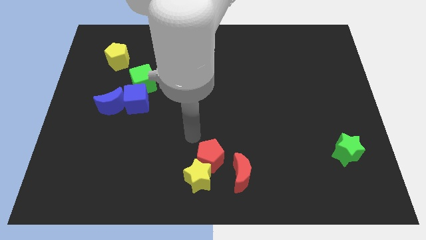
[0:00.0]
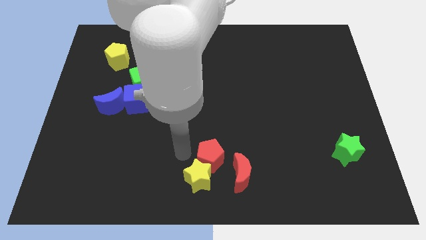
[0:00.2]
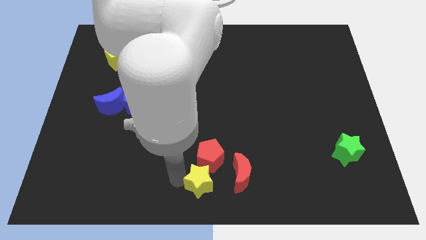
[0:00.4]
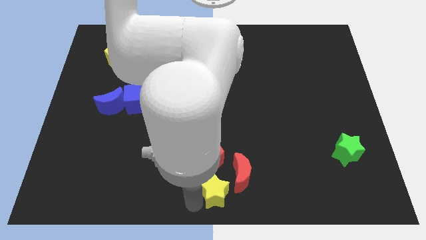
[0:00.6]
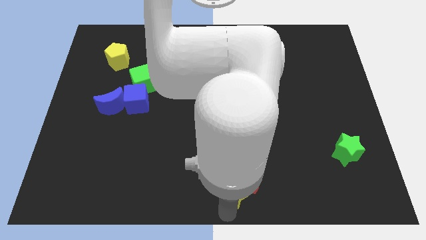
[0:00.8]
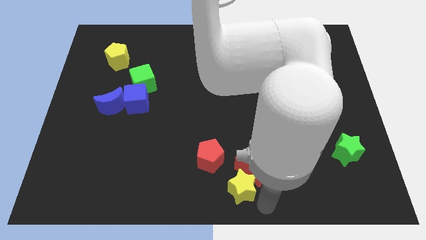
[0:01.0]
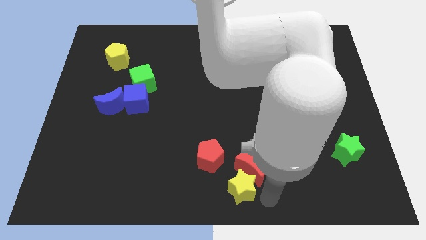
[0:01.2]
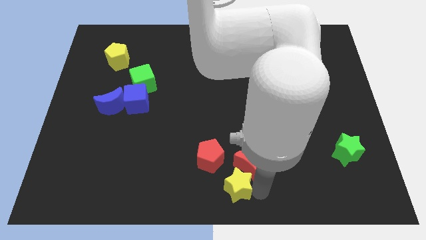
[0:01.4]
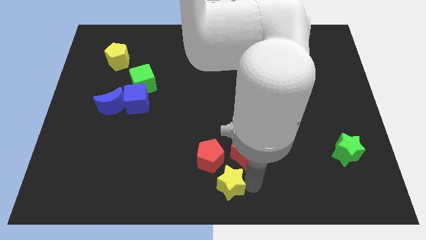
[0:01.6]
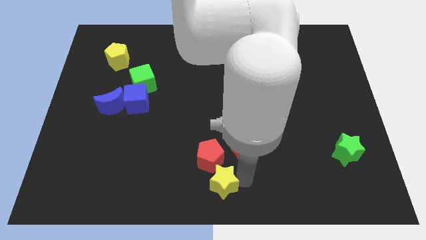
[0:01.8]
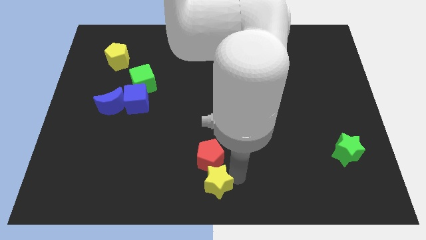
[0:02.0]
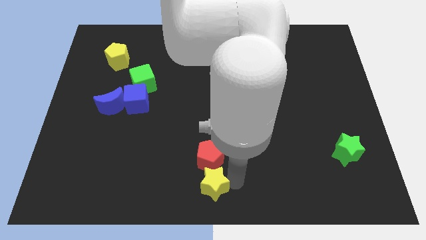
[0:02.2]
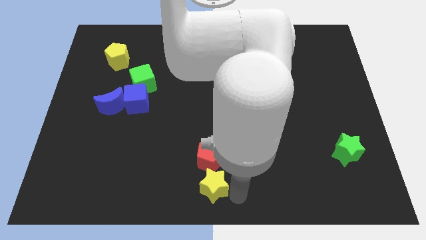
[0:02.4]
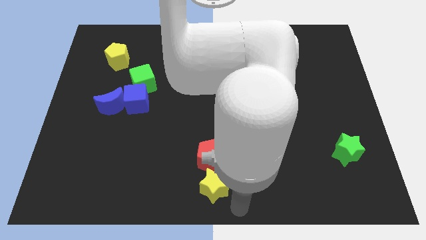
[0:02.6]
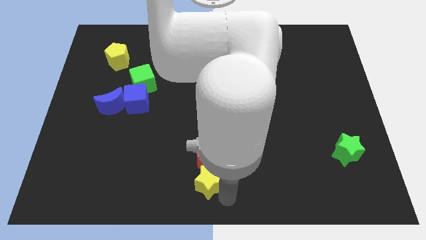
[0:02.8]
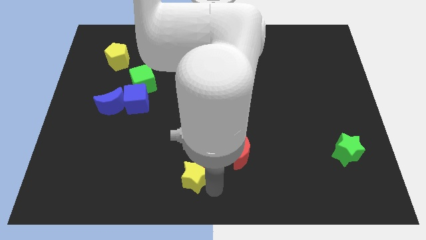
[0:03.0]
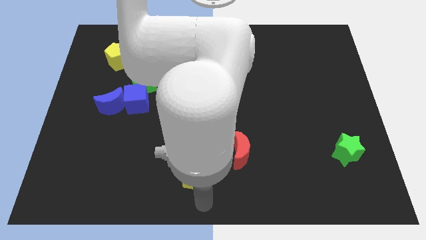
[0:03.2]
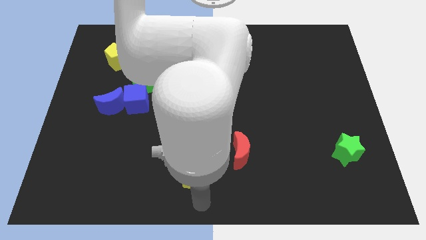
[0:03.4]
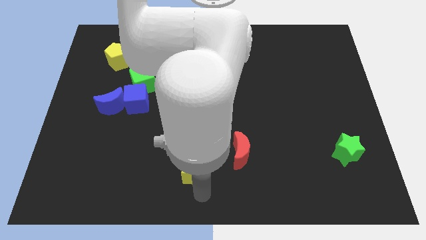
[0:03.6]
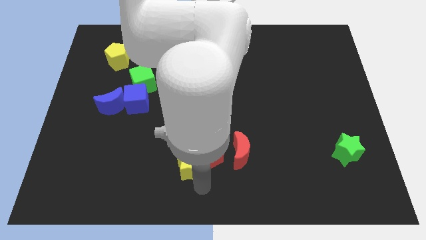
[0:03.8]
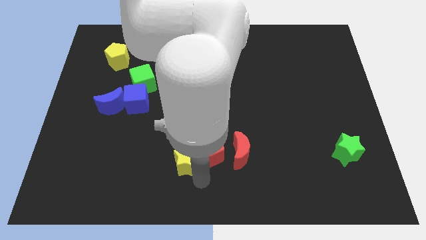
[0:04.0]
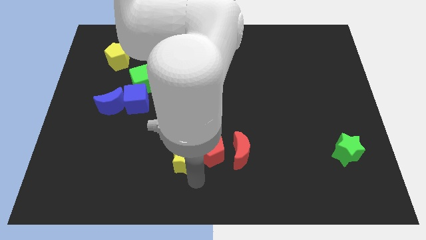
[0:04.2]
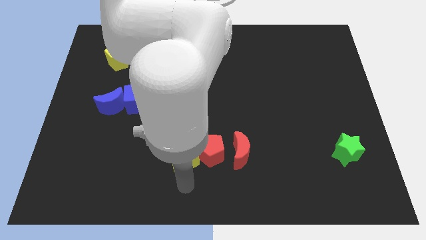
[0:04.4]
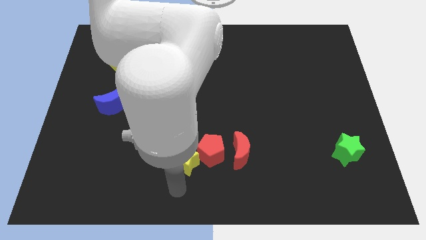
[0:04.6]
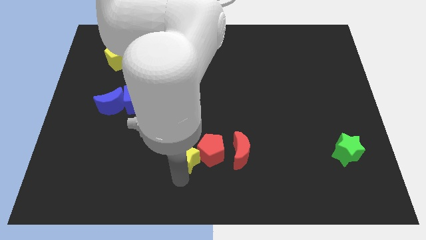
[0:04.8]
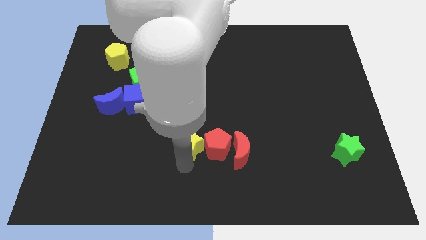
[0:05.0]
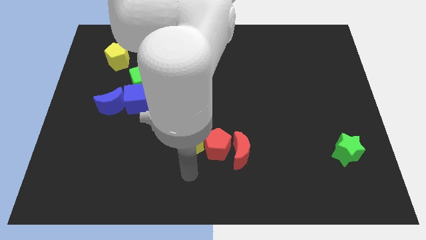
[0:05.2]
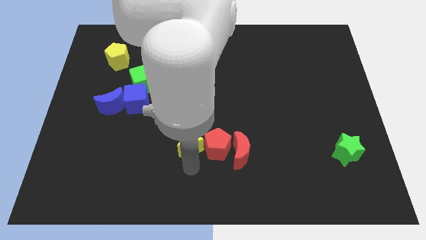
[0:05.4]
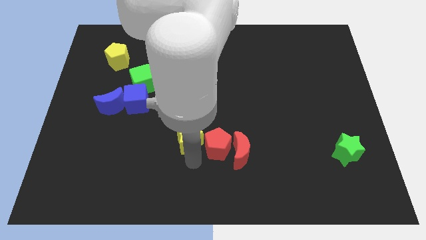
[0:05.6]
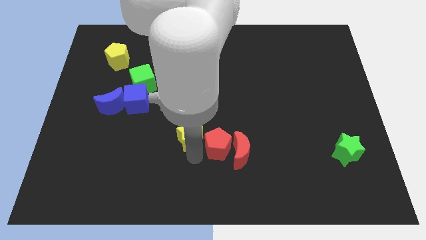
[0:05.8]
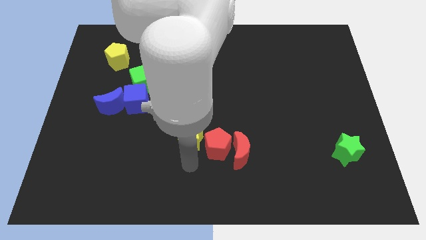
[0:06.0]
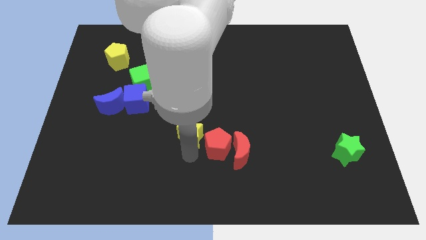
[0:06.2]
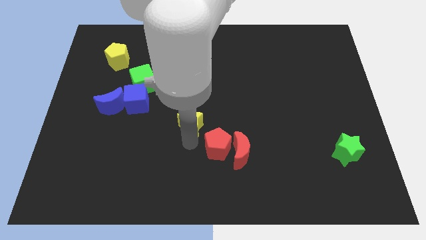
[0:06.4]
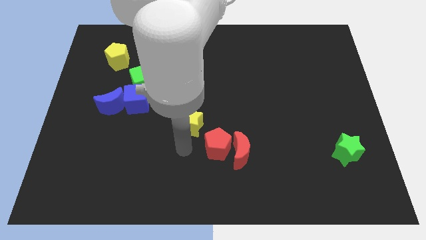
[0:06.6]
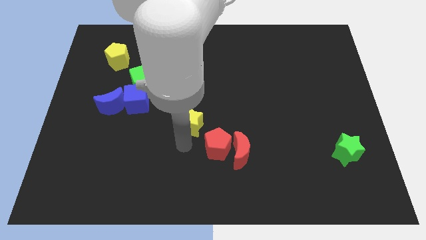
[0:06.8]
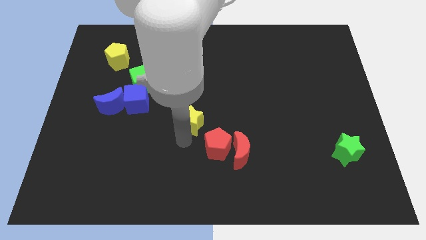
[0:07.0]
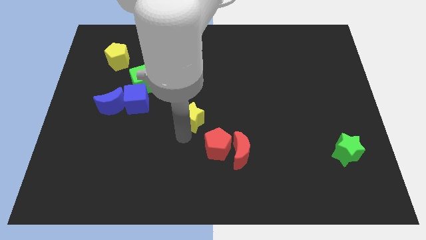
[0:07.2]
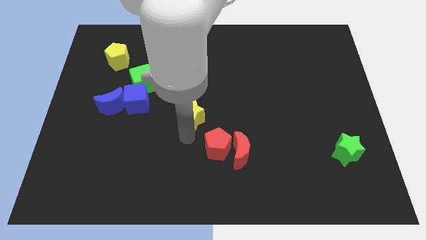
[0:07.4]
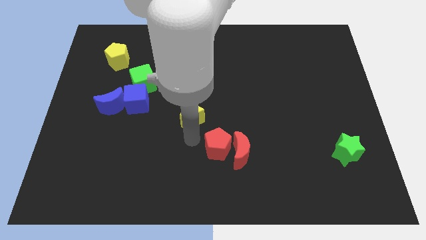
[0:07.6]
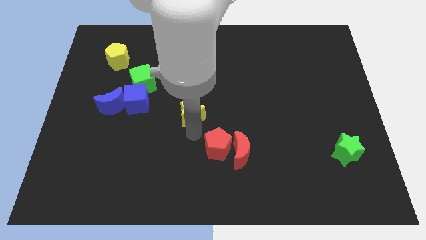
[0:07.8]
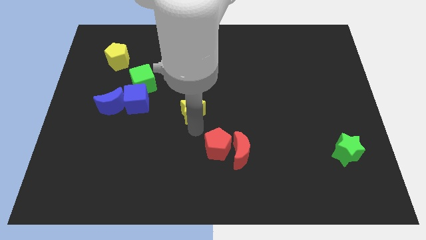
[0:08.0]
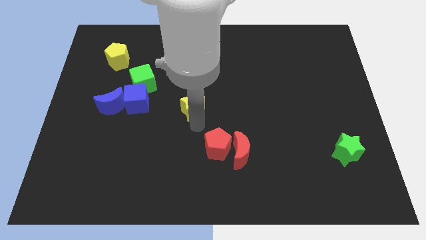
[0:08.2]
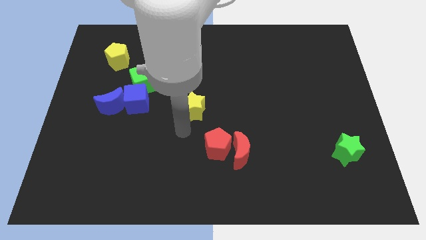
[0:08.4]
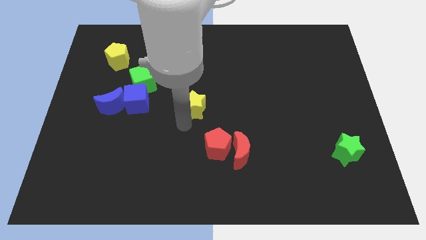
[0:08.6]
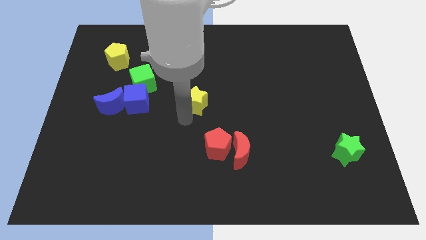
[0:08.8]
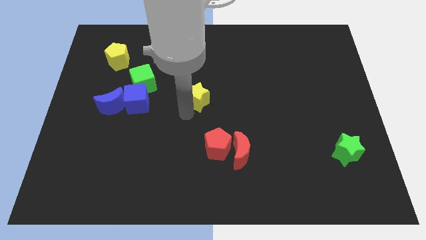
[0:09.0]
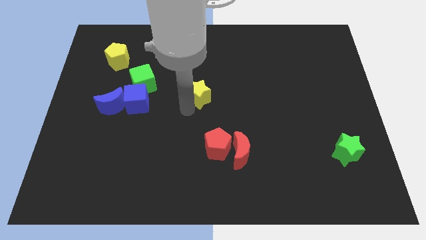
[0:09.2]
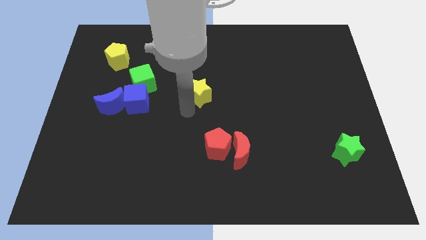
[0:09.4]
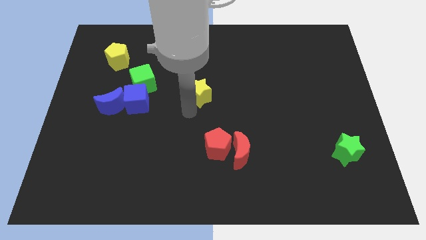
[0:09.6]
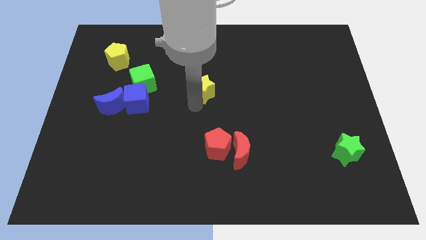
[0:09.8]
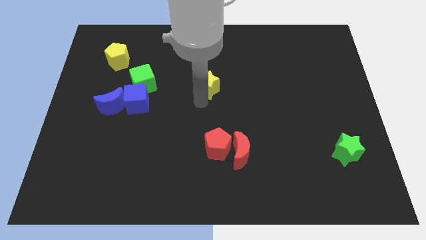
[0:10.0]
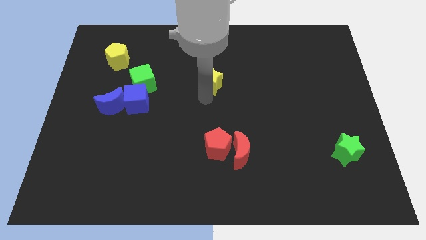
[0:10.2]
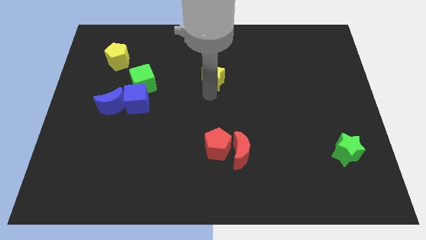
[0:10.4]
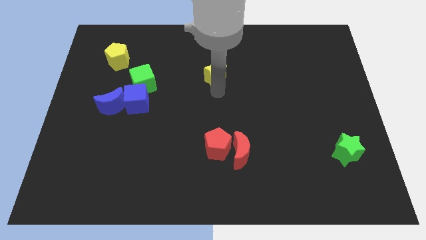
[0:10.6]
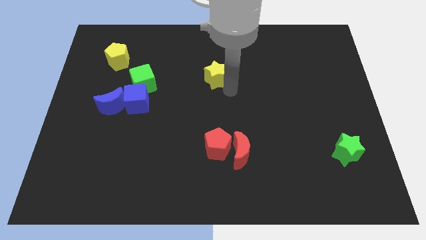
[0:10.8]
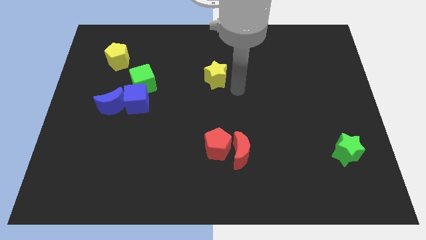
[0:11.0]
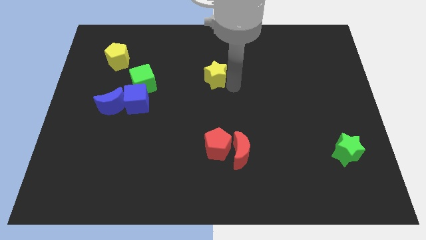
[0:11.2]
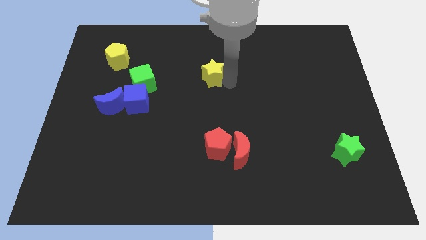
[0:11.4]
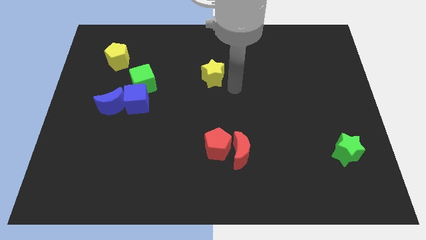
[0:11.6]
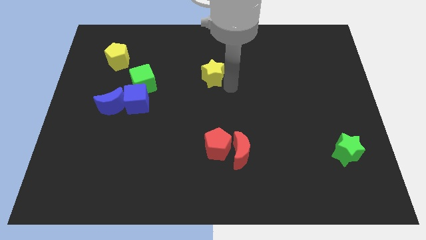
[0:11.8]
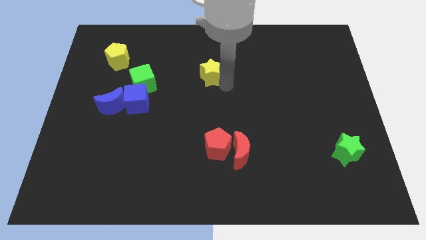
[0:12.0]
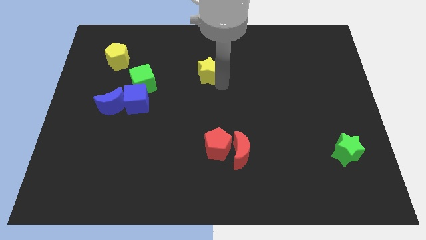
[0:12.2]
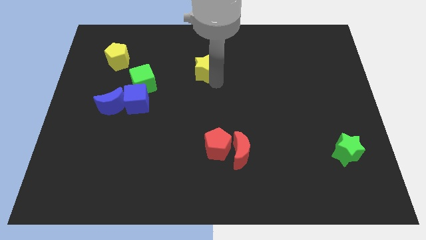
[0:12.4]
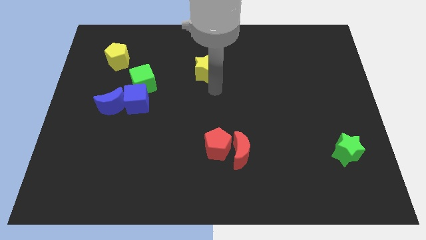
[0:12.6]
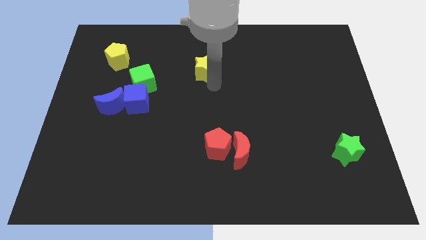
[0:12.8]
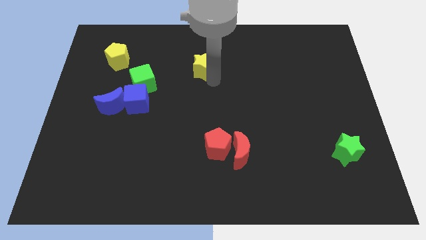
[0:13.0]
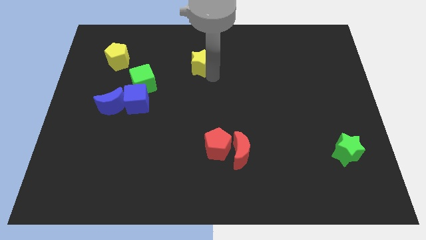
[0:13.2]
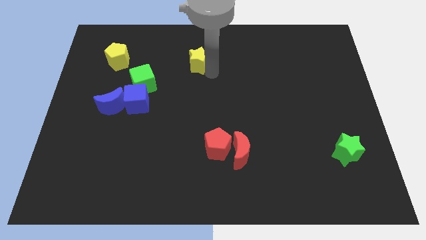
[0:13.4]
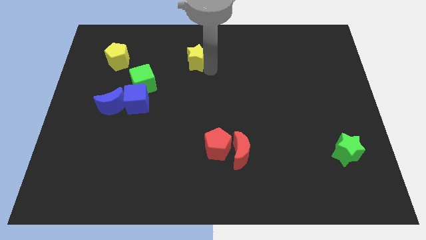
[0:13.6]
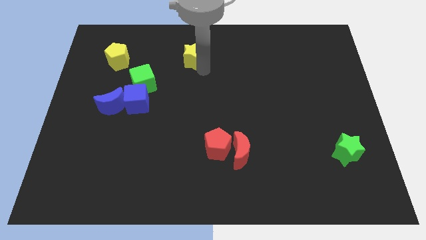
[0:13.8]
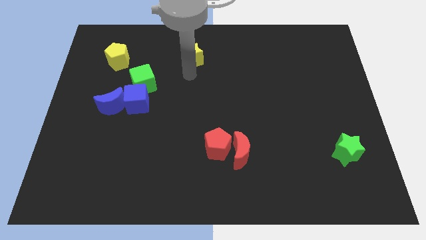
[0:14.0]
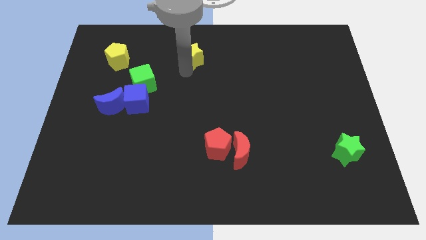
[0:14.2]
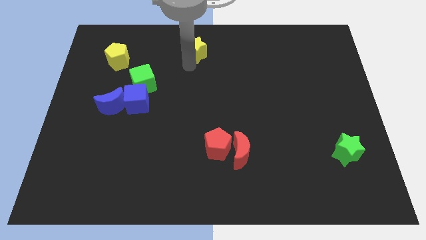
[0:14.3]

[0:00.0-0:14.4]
slide the yellow star to the top side
